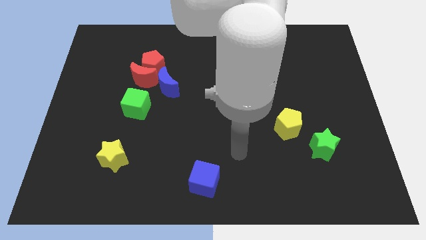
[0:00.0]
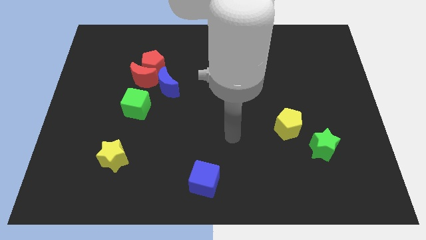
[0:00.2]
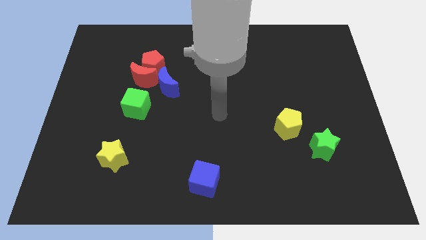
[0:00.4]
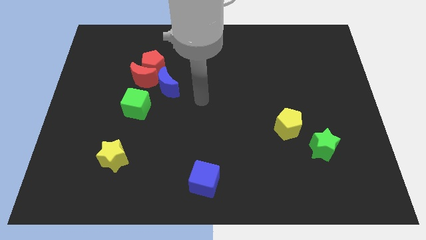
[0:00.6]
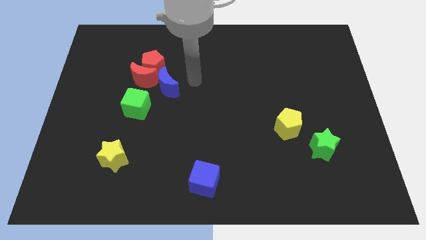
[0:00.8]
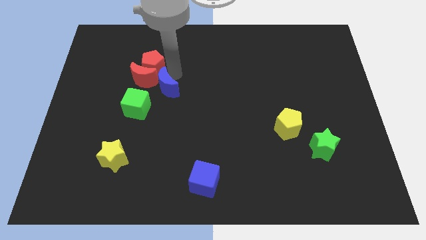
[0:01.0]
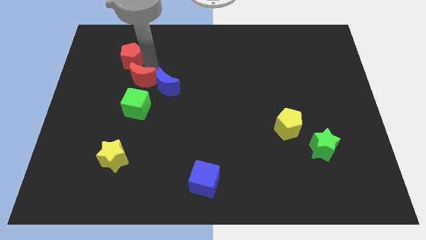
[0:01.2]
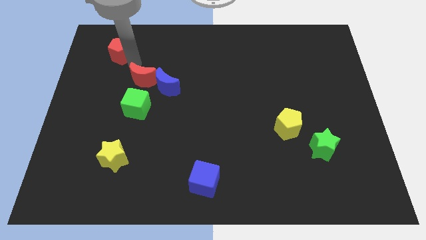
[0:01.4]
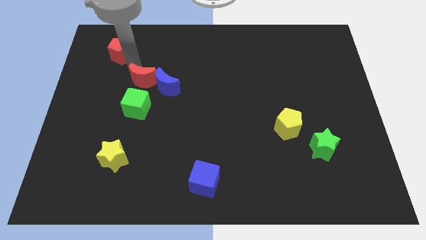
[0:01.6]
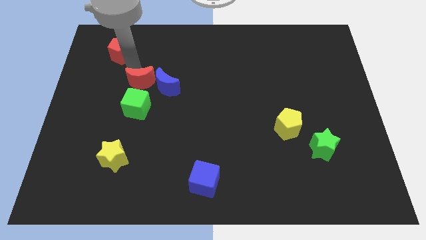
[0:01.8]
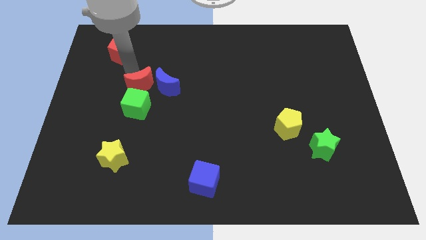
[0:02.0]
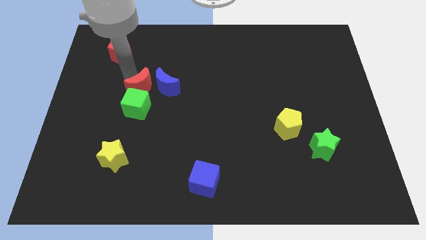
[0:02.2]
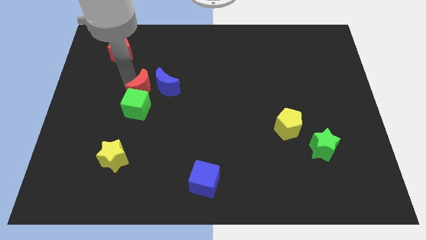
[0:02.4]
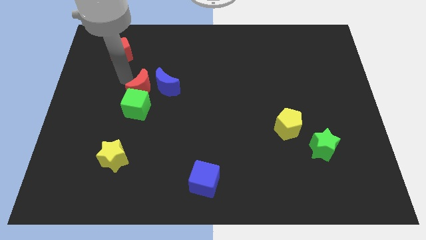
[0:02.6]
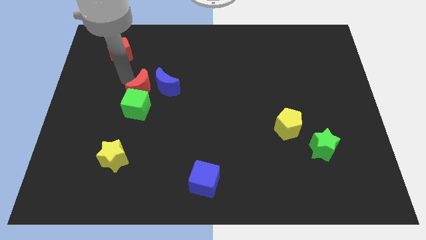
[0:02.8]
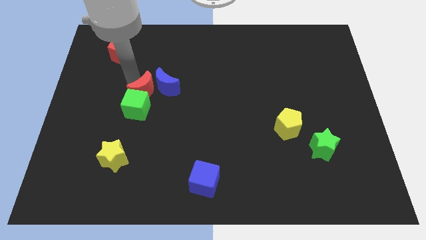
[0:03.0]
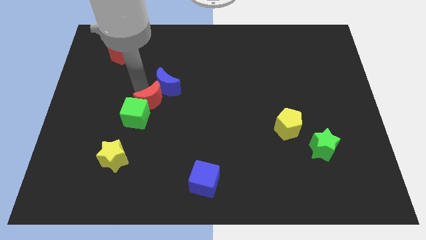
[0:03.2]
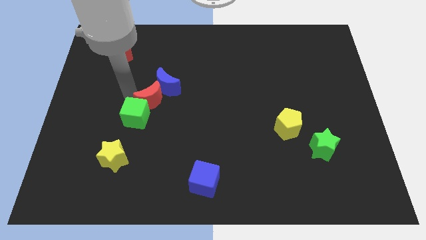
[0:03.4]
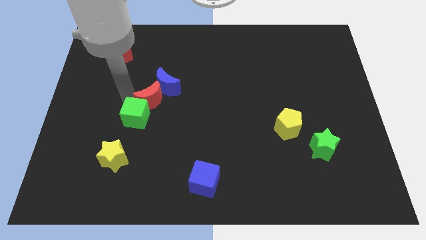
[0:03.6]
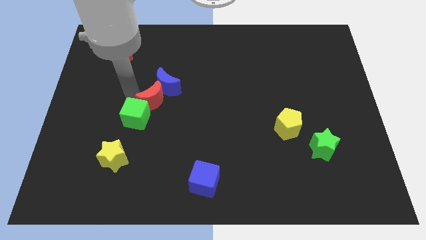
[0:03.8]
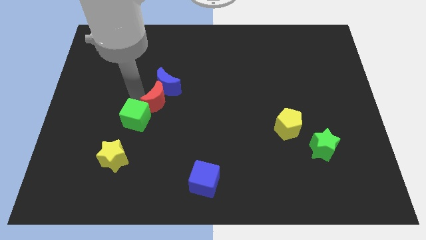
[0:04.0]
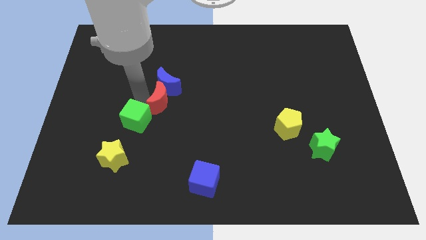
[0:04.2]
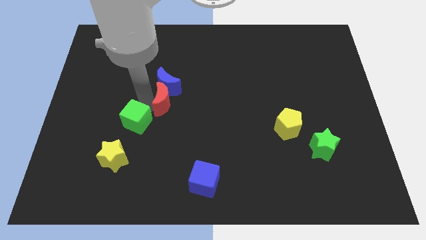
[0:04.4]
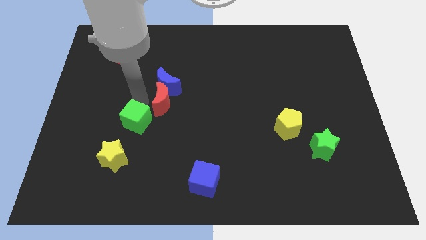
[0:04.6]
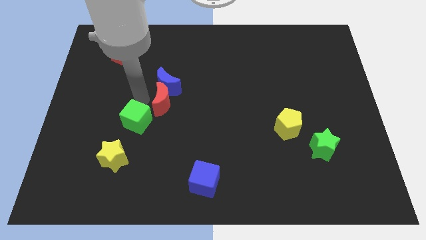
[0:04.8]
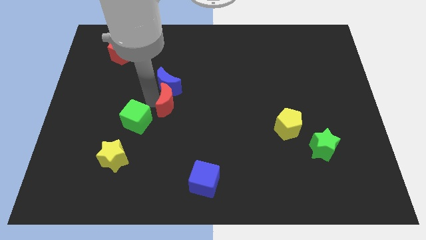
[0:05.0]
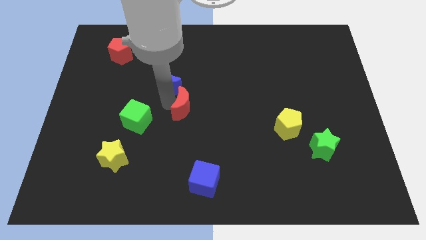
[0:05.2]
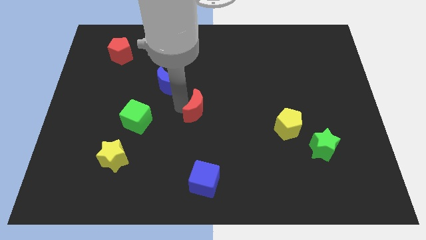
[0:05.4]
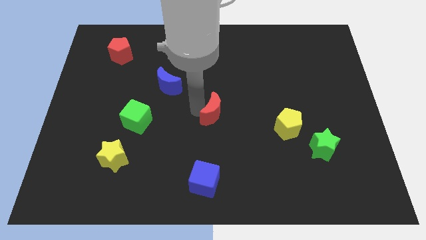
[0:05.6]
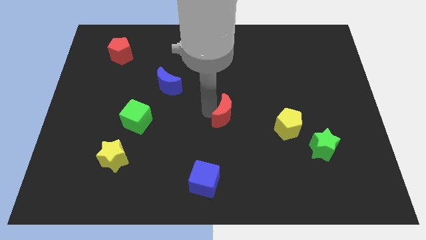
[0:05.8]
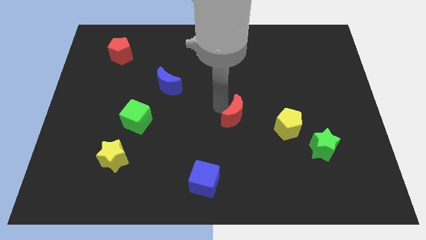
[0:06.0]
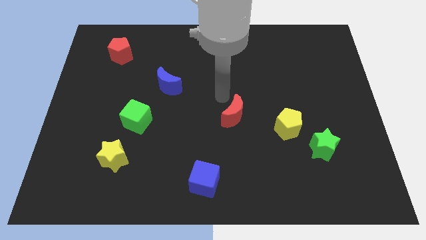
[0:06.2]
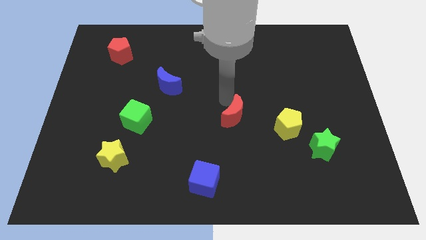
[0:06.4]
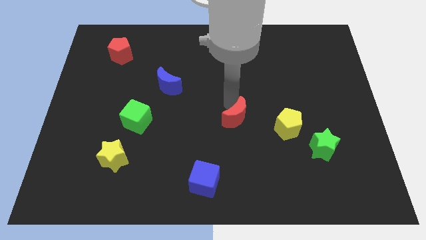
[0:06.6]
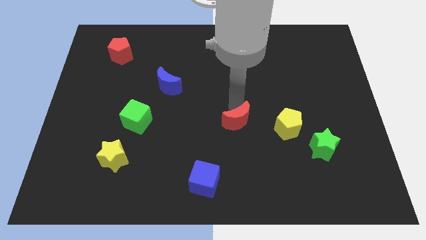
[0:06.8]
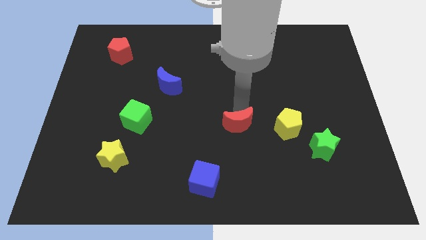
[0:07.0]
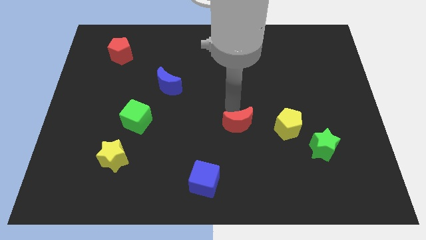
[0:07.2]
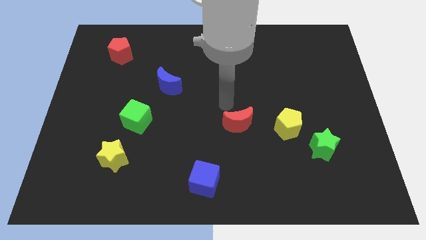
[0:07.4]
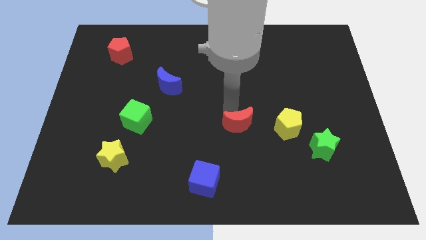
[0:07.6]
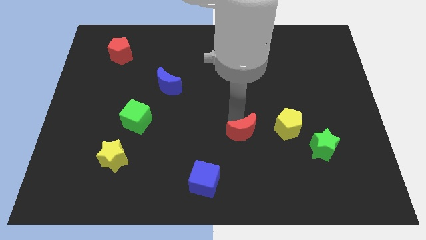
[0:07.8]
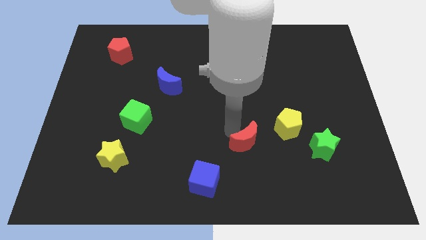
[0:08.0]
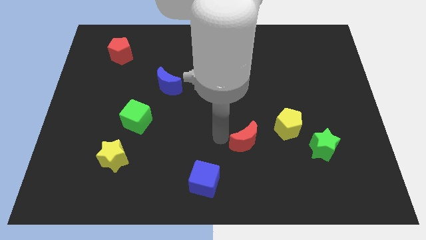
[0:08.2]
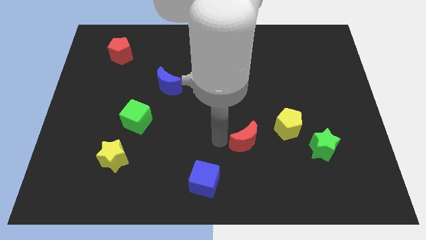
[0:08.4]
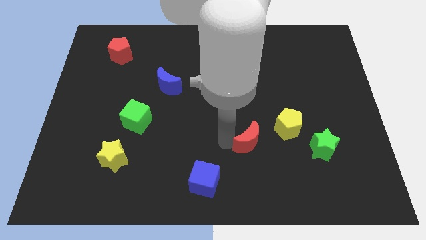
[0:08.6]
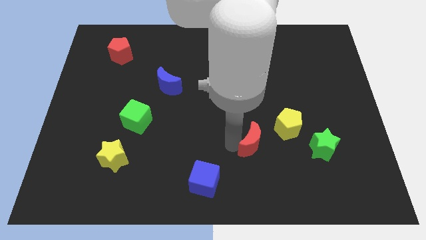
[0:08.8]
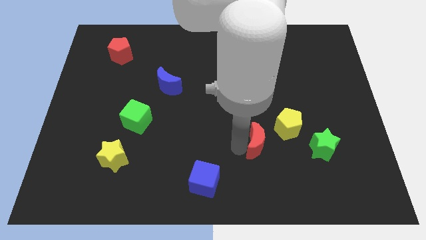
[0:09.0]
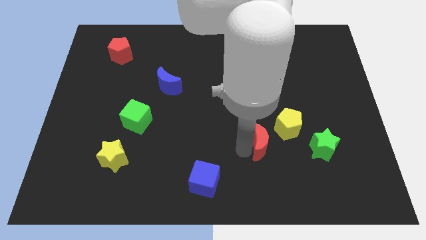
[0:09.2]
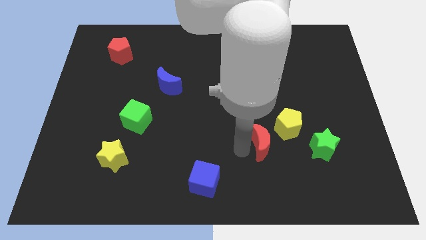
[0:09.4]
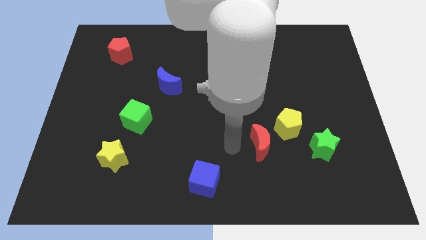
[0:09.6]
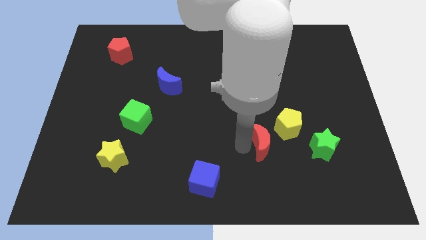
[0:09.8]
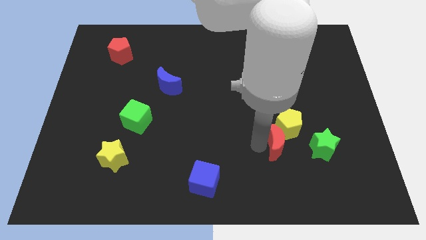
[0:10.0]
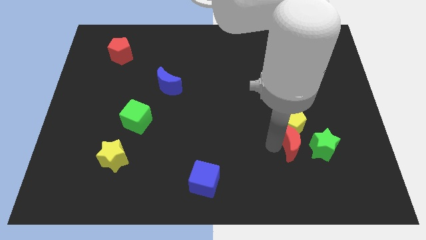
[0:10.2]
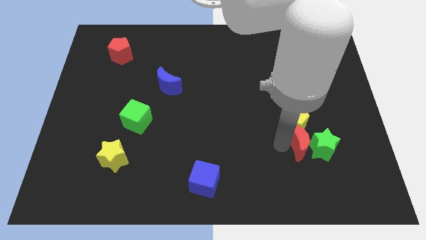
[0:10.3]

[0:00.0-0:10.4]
put the red moon towards the green star

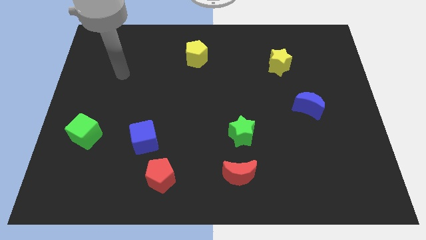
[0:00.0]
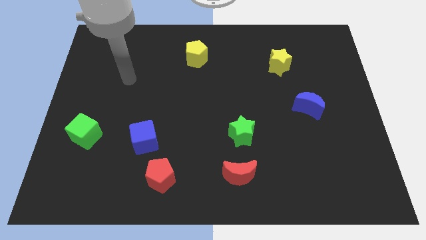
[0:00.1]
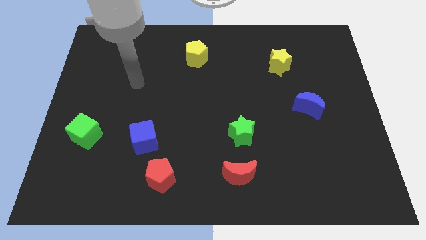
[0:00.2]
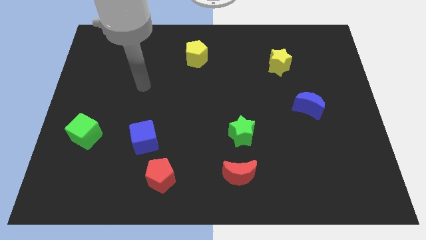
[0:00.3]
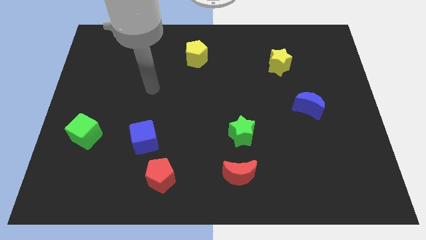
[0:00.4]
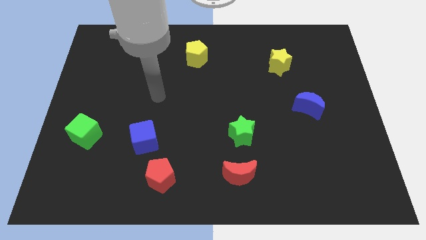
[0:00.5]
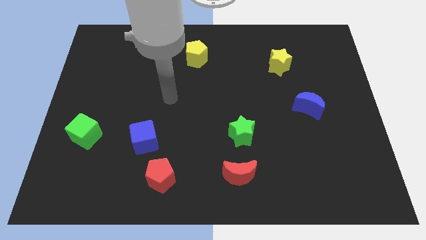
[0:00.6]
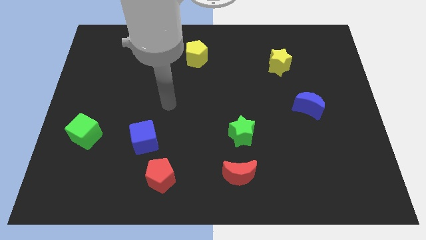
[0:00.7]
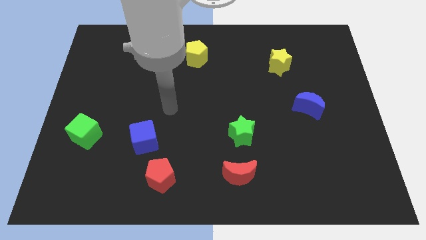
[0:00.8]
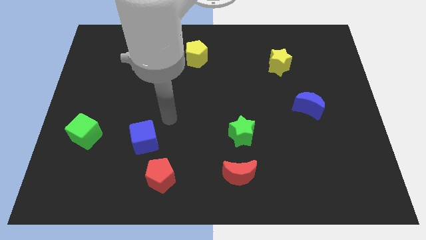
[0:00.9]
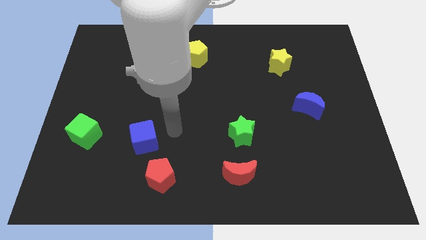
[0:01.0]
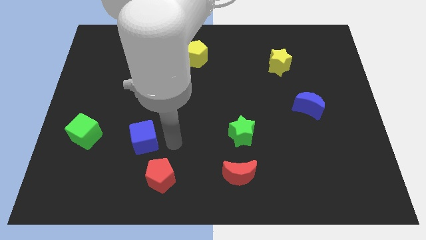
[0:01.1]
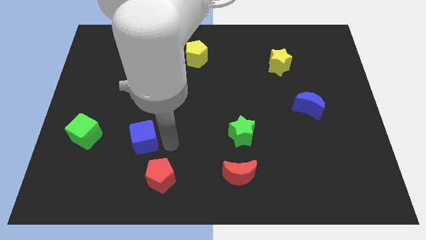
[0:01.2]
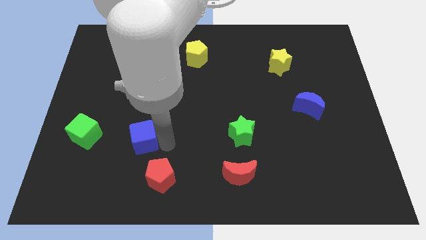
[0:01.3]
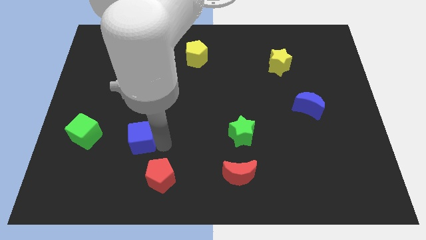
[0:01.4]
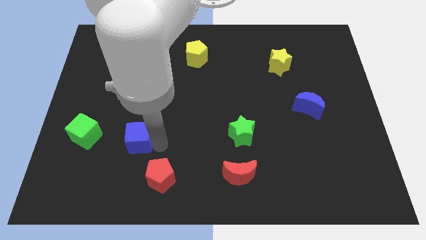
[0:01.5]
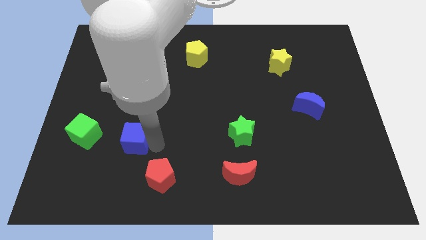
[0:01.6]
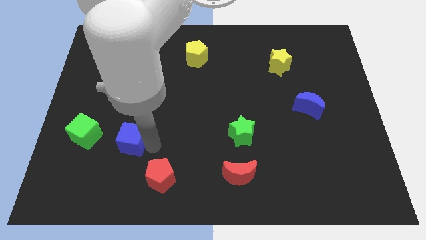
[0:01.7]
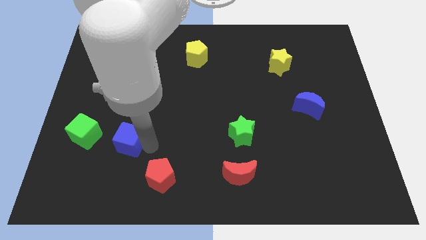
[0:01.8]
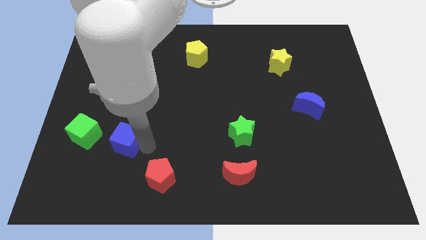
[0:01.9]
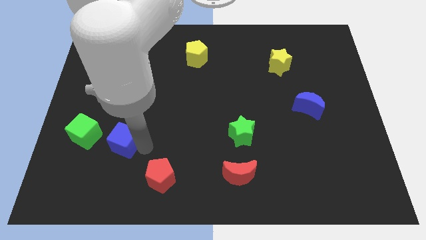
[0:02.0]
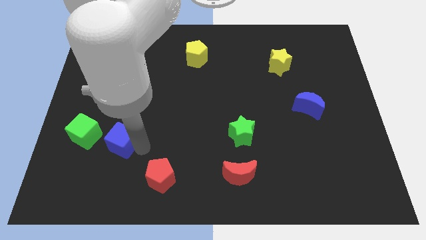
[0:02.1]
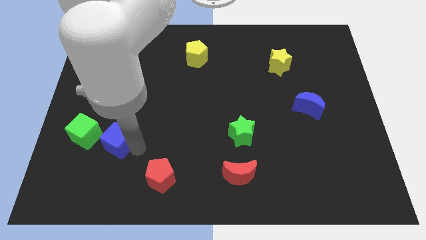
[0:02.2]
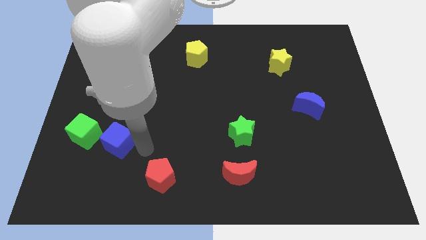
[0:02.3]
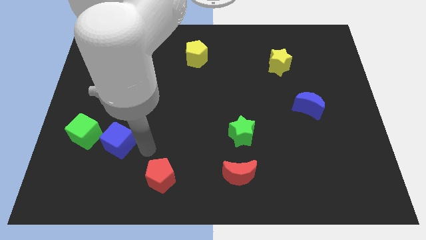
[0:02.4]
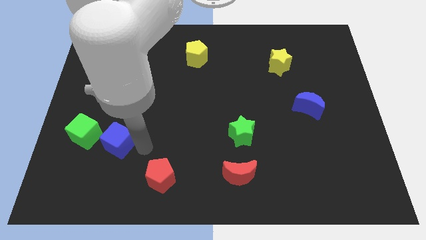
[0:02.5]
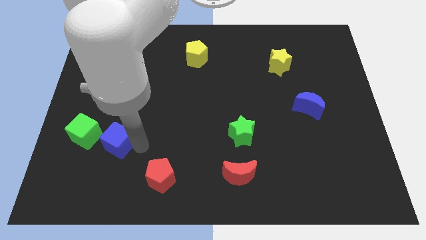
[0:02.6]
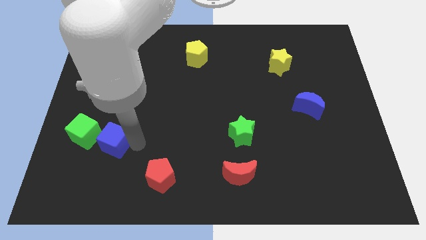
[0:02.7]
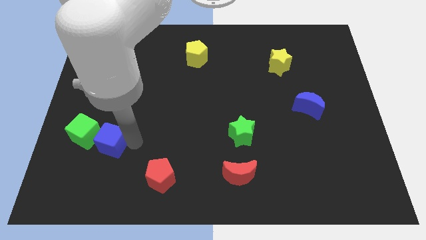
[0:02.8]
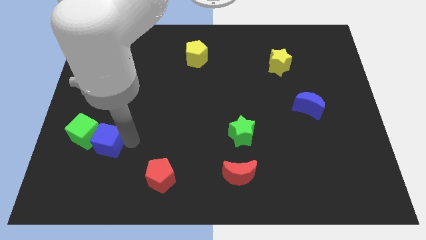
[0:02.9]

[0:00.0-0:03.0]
put the blue cube close to the green cube
